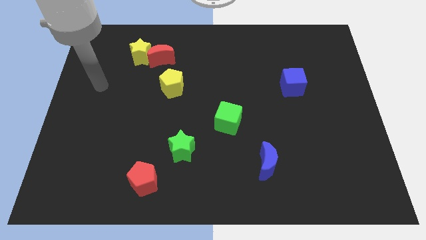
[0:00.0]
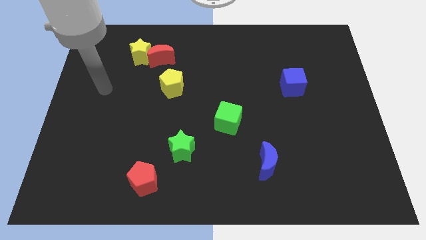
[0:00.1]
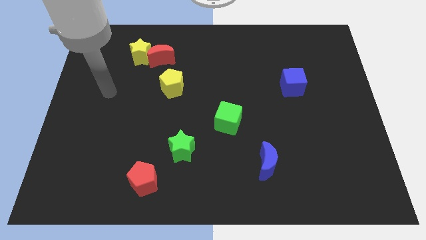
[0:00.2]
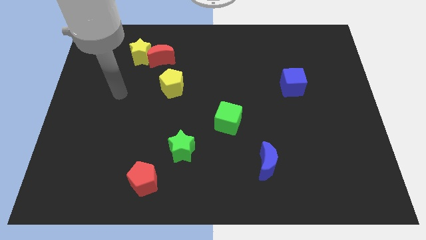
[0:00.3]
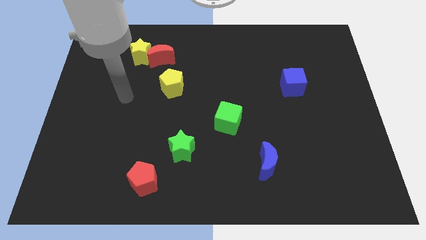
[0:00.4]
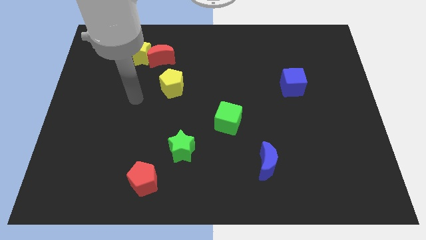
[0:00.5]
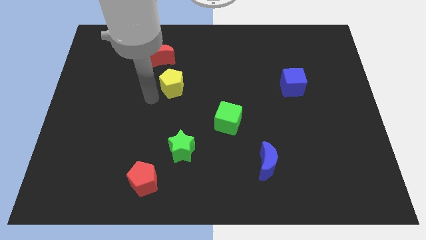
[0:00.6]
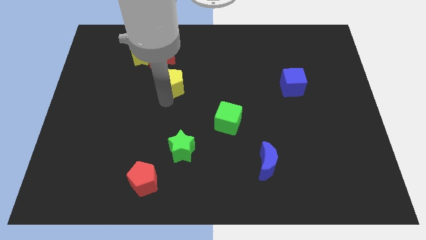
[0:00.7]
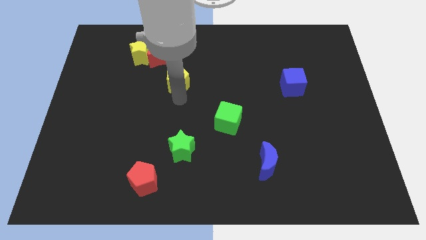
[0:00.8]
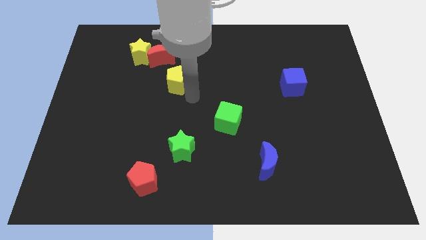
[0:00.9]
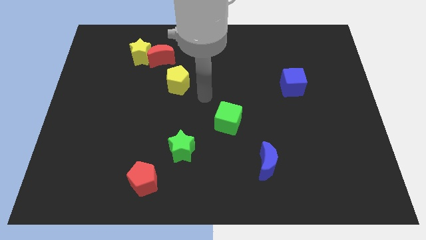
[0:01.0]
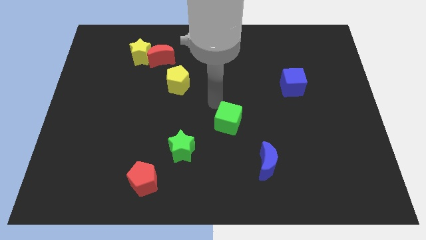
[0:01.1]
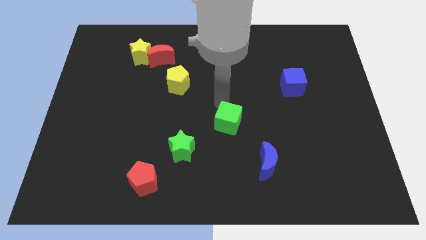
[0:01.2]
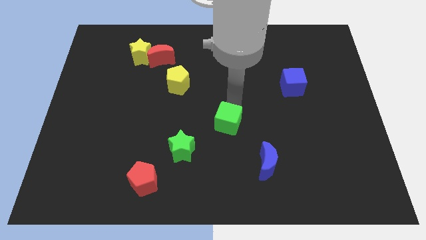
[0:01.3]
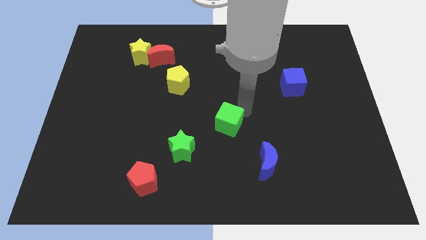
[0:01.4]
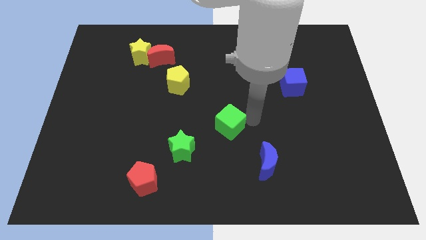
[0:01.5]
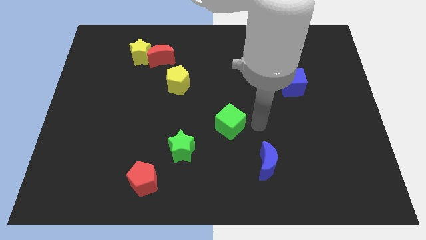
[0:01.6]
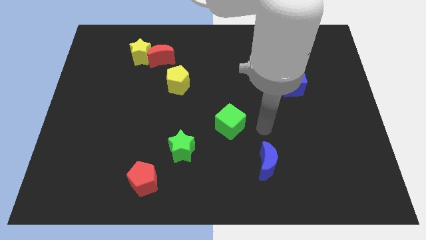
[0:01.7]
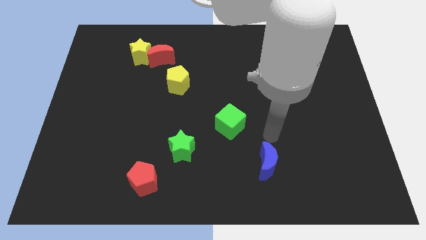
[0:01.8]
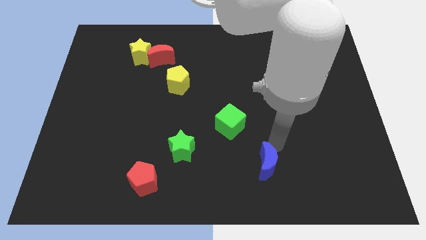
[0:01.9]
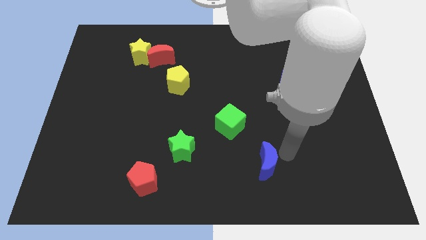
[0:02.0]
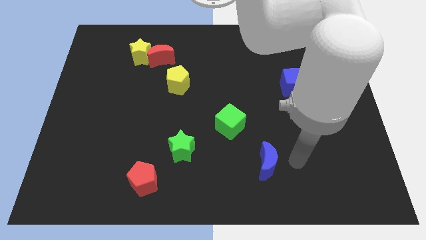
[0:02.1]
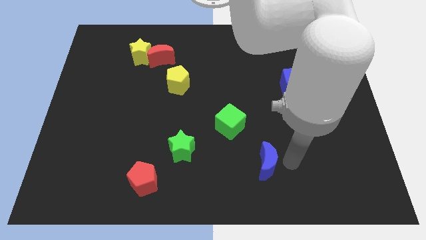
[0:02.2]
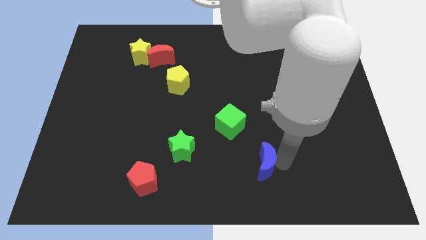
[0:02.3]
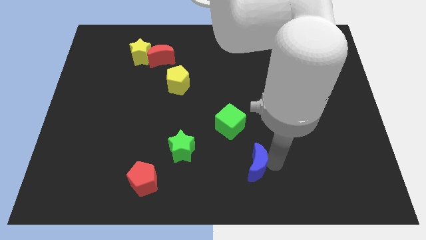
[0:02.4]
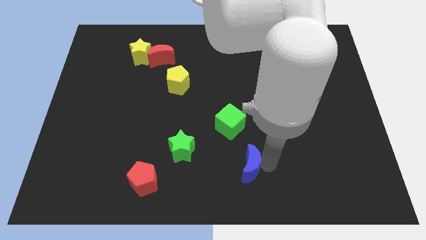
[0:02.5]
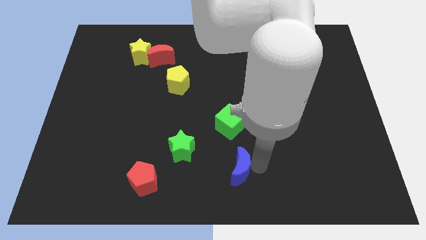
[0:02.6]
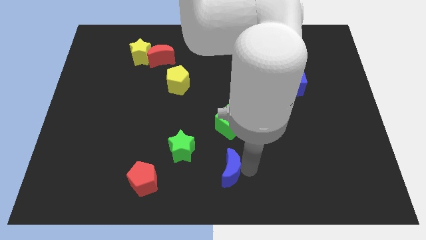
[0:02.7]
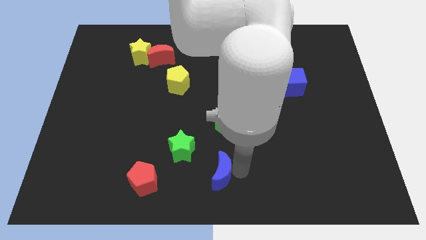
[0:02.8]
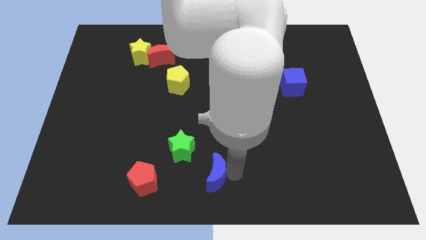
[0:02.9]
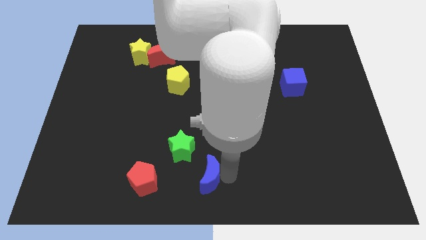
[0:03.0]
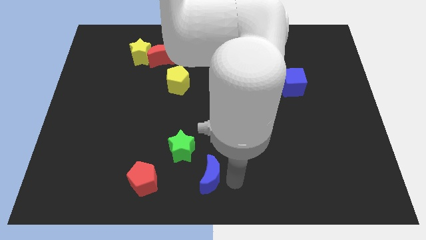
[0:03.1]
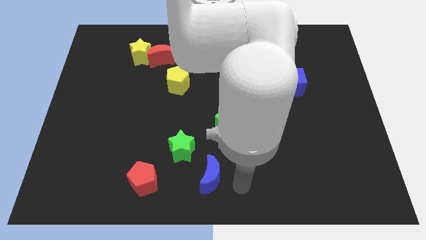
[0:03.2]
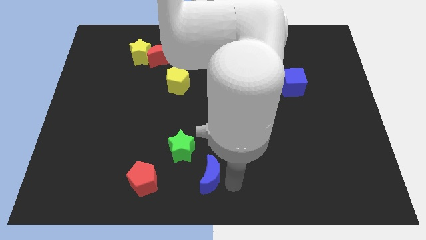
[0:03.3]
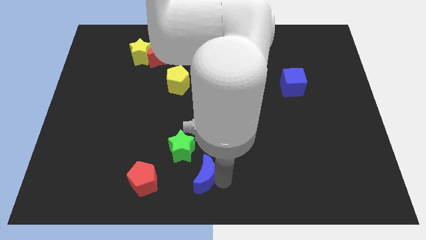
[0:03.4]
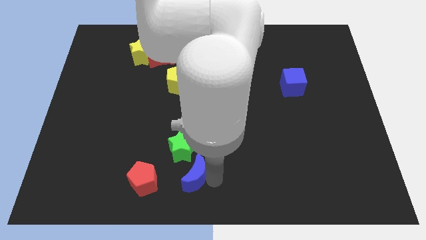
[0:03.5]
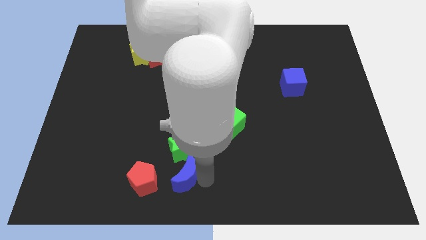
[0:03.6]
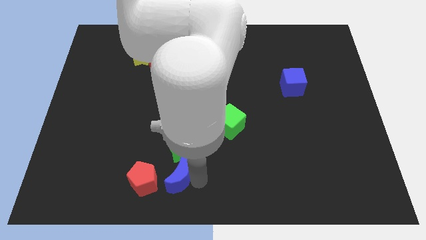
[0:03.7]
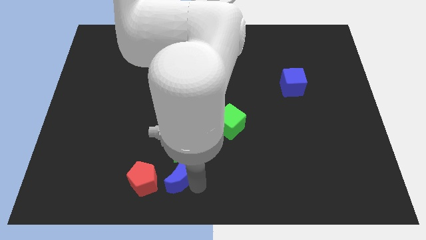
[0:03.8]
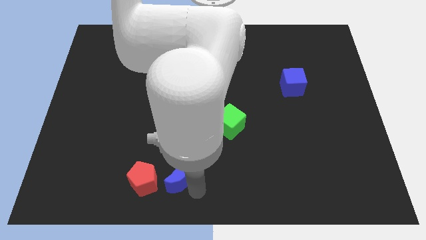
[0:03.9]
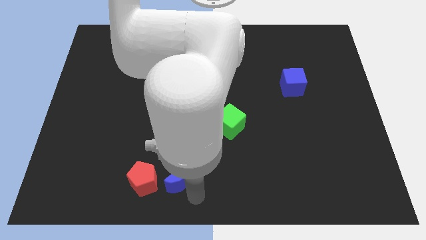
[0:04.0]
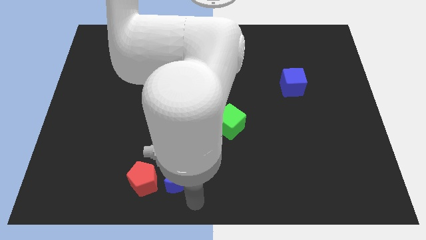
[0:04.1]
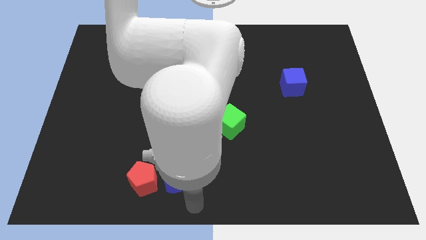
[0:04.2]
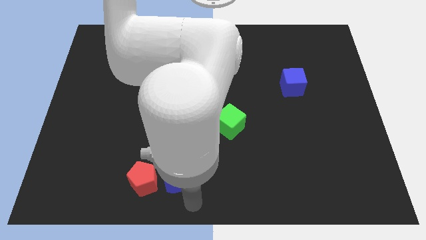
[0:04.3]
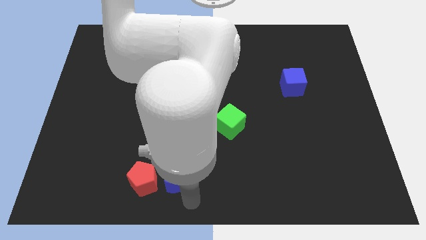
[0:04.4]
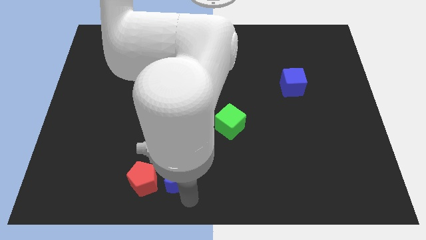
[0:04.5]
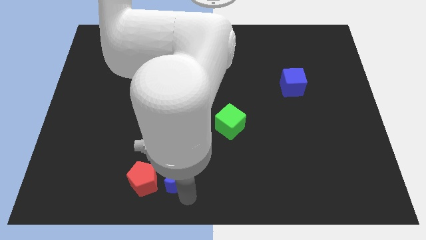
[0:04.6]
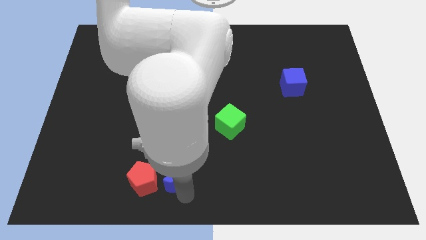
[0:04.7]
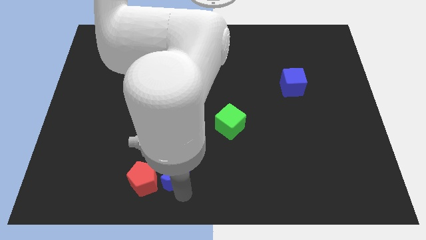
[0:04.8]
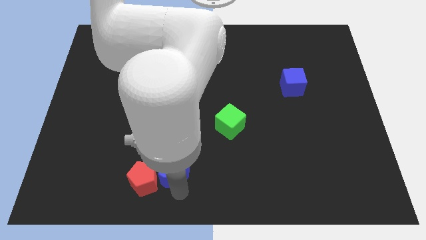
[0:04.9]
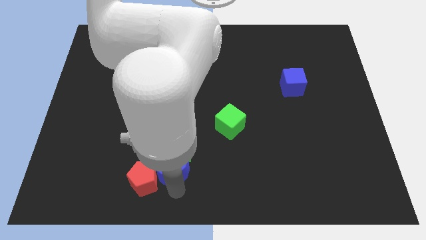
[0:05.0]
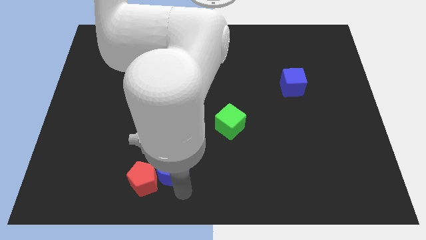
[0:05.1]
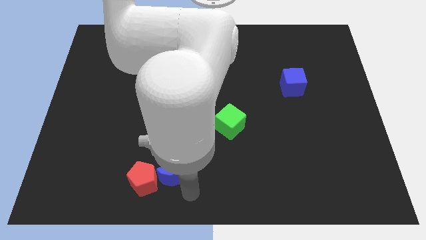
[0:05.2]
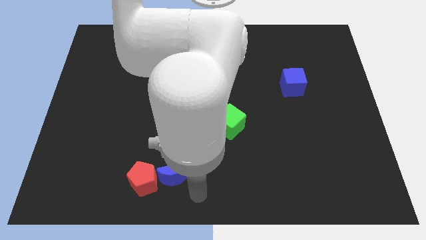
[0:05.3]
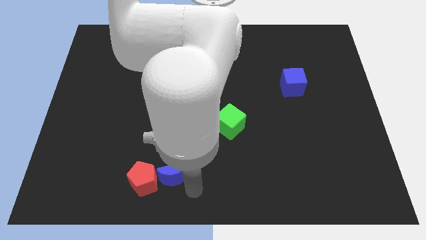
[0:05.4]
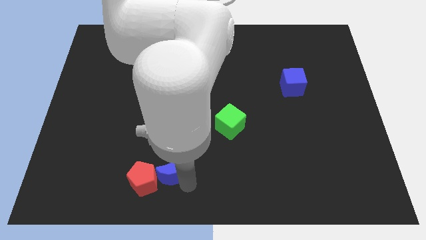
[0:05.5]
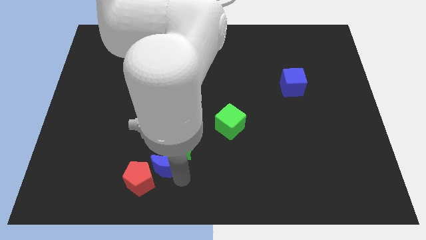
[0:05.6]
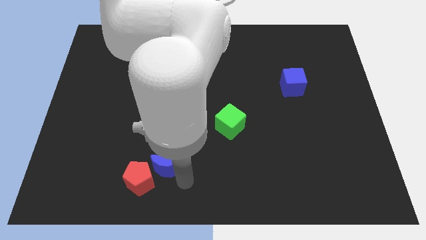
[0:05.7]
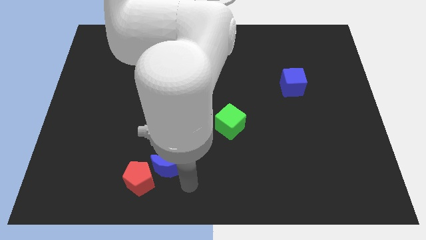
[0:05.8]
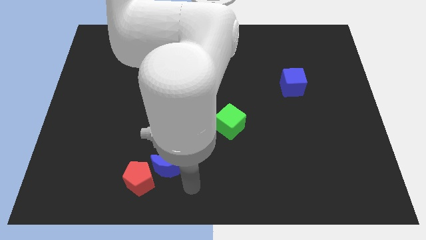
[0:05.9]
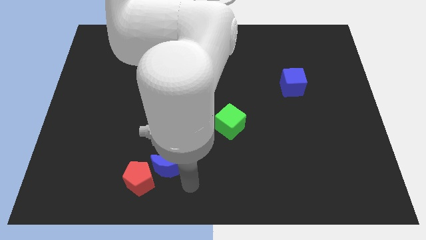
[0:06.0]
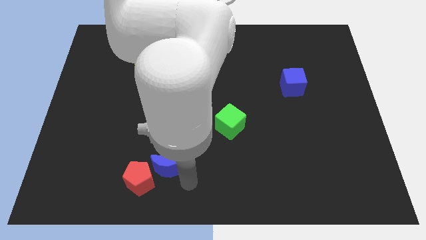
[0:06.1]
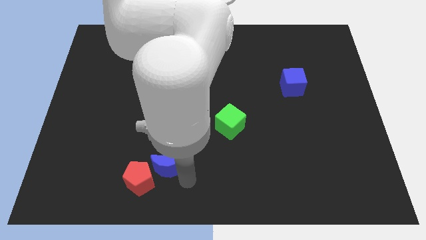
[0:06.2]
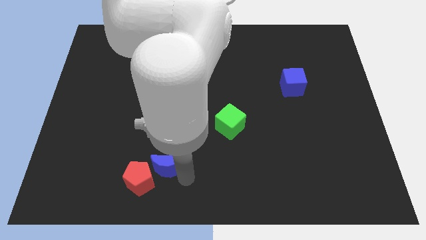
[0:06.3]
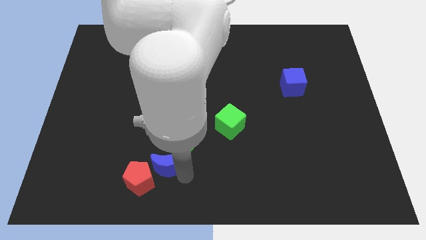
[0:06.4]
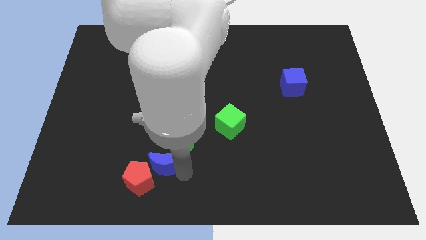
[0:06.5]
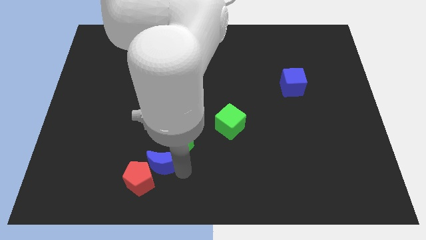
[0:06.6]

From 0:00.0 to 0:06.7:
slide the blue moon to the top side of the red pentagon

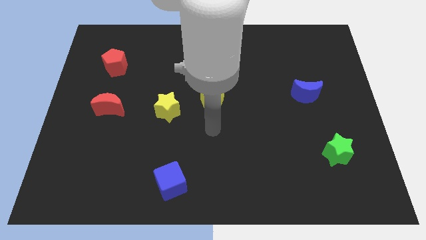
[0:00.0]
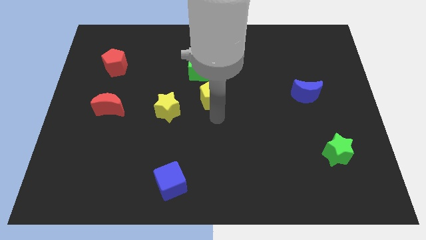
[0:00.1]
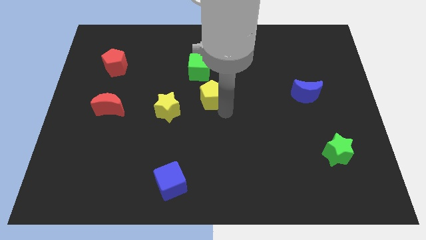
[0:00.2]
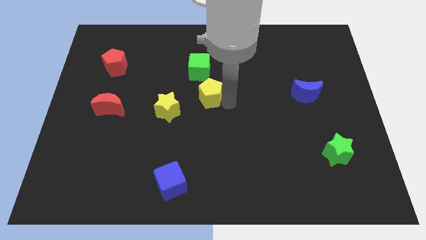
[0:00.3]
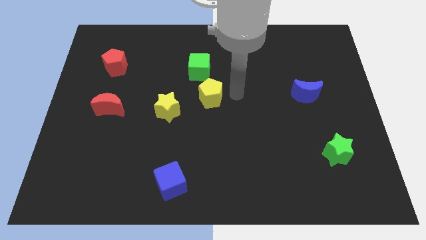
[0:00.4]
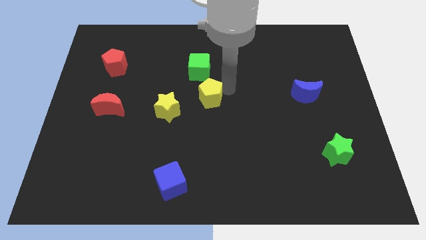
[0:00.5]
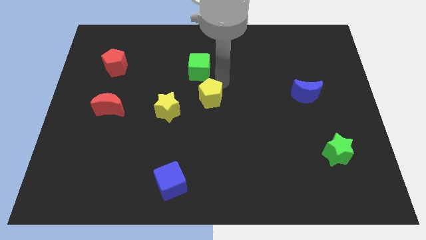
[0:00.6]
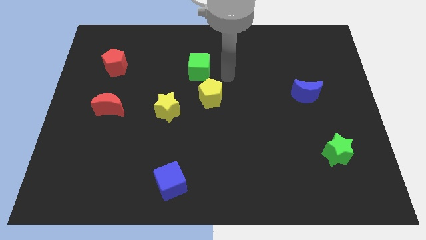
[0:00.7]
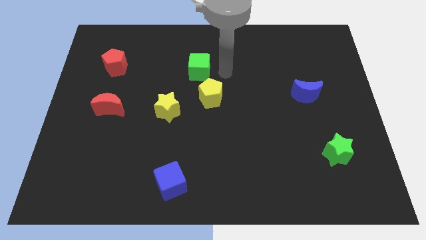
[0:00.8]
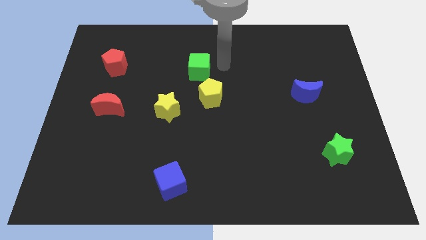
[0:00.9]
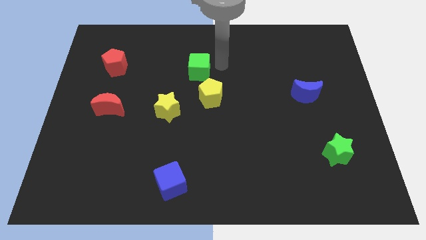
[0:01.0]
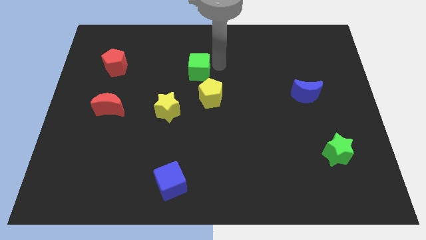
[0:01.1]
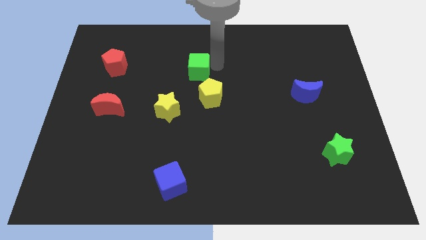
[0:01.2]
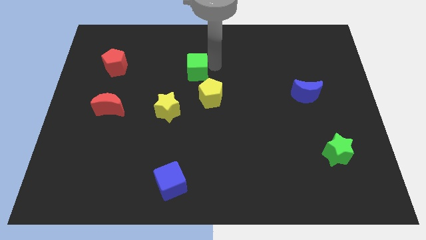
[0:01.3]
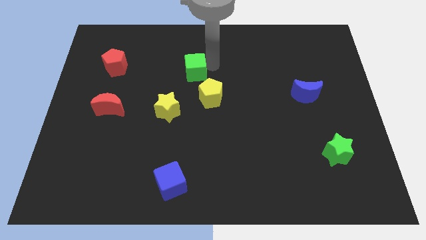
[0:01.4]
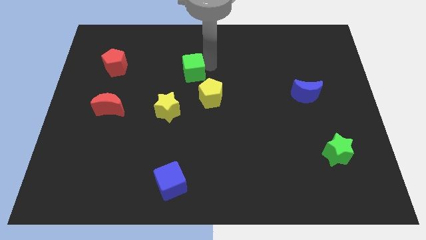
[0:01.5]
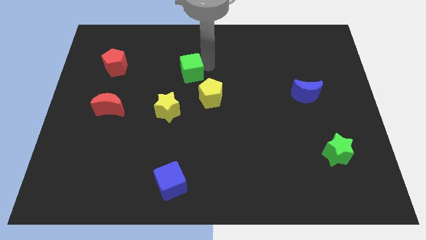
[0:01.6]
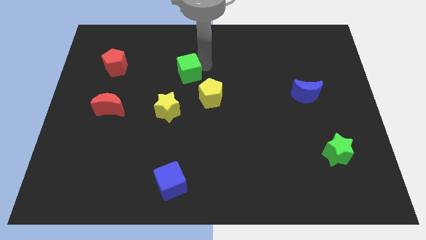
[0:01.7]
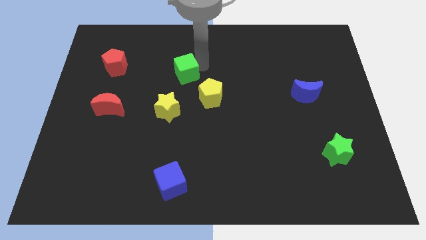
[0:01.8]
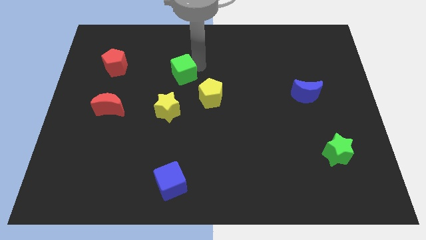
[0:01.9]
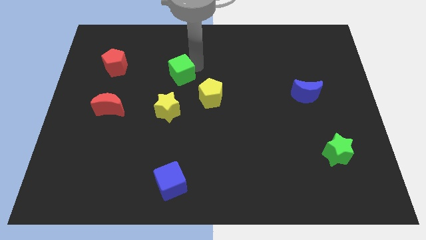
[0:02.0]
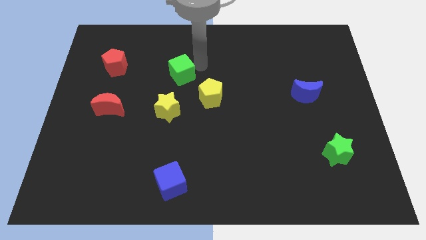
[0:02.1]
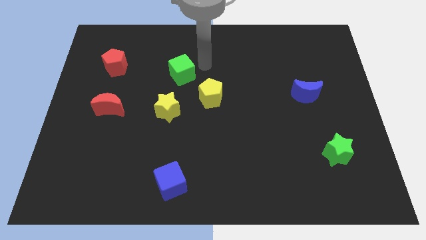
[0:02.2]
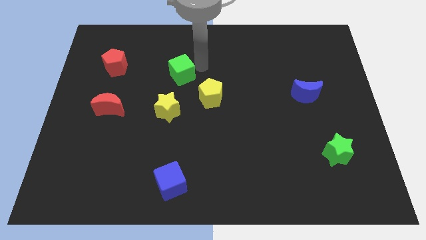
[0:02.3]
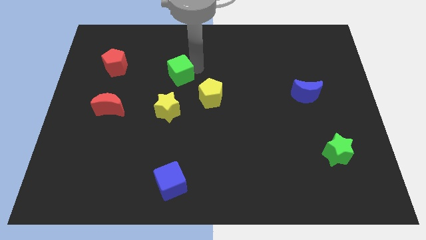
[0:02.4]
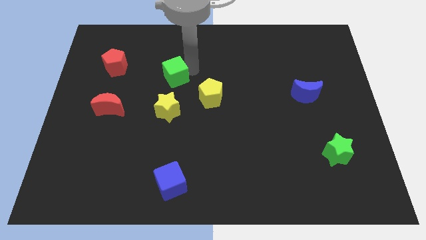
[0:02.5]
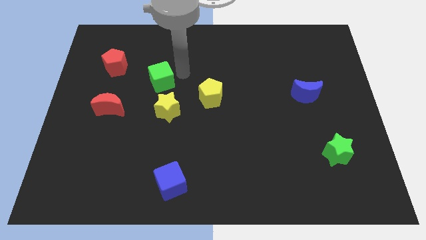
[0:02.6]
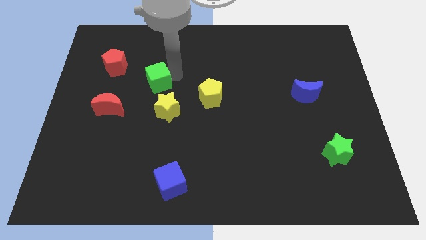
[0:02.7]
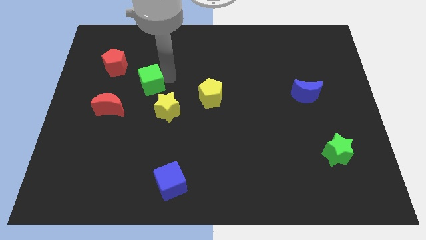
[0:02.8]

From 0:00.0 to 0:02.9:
push the green cube to the top right of the red moon
